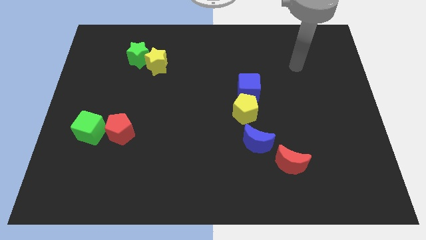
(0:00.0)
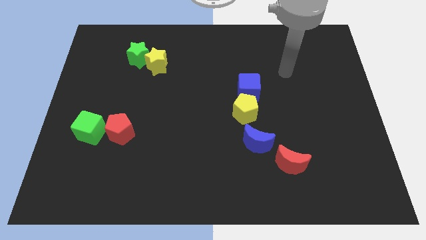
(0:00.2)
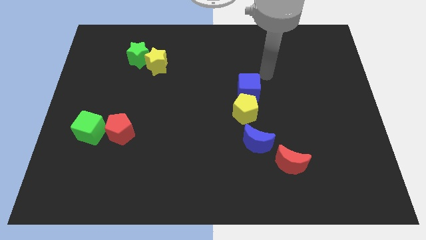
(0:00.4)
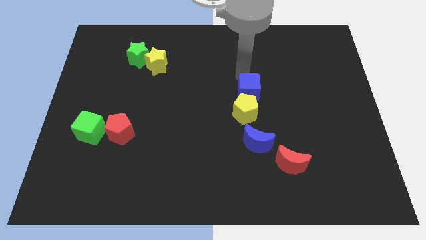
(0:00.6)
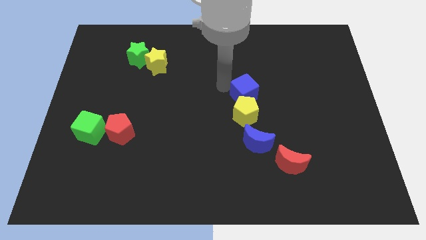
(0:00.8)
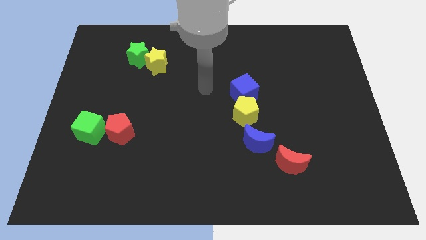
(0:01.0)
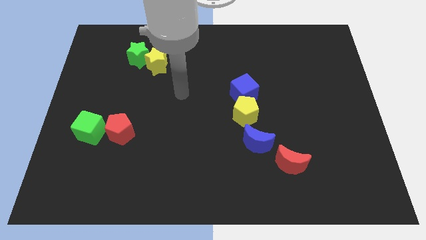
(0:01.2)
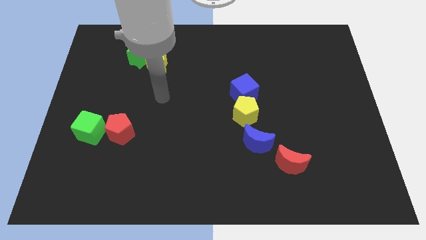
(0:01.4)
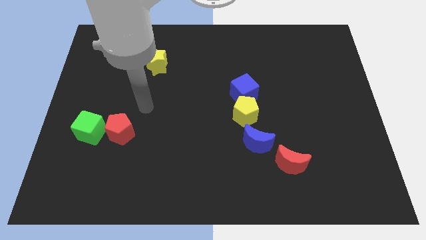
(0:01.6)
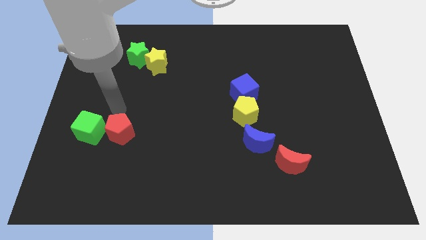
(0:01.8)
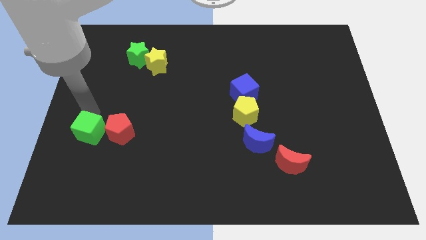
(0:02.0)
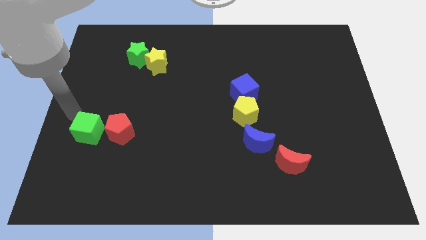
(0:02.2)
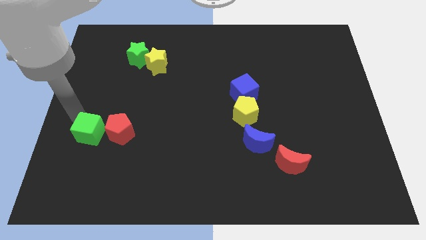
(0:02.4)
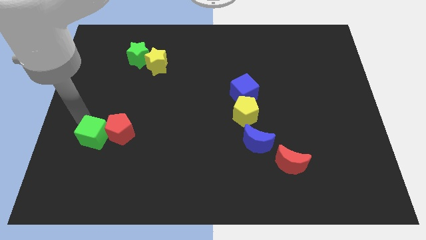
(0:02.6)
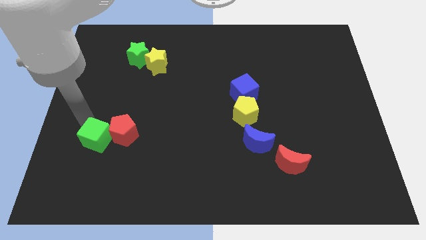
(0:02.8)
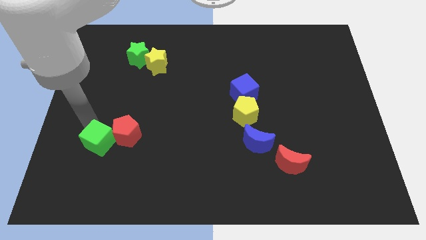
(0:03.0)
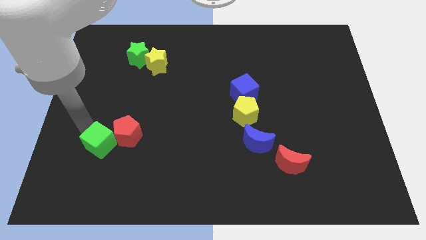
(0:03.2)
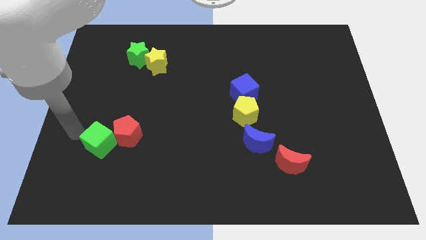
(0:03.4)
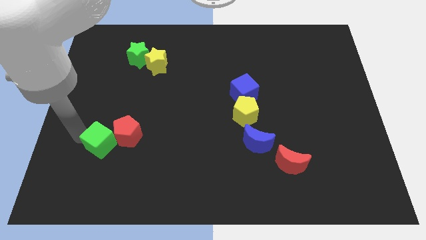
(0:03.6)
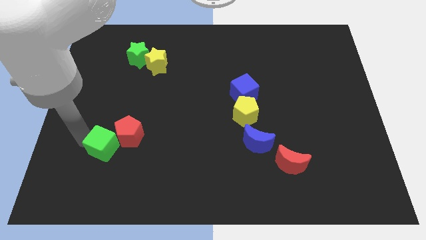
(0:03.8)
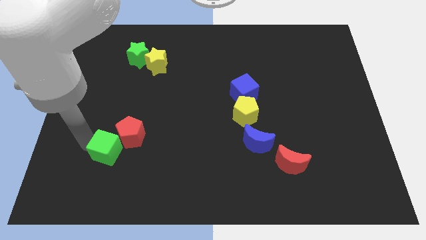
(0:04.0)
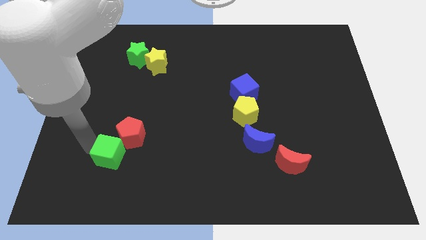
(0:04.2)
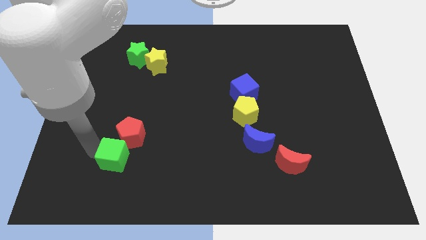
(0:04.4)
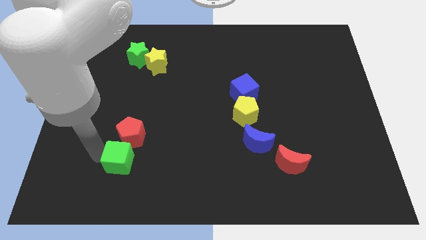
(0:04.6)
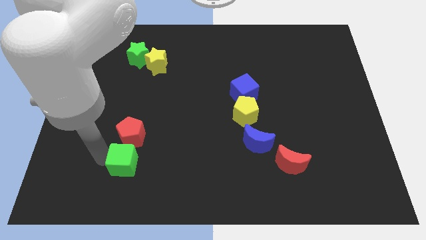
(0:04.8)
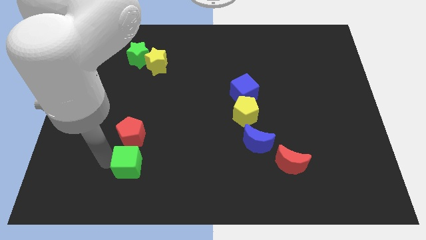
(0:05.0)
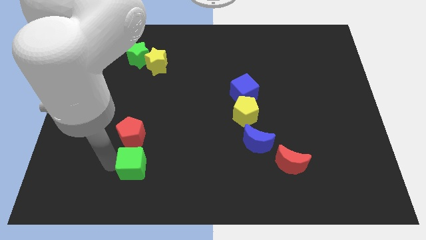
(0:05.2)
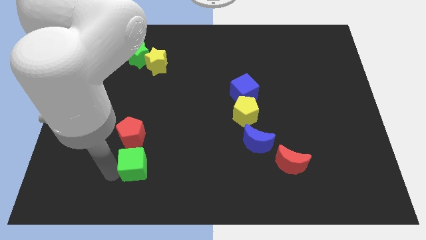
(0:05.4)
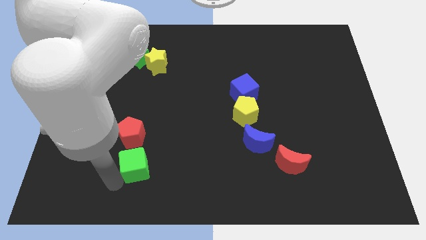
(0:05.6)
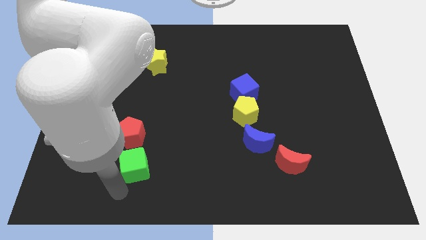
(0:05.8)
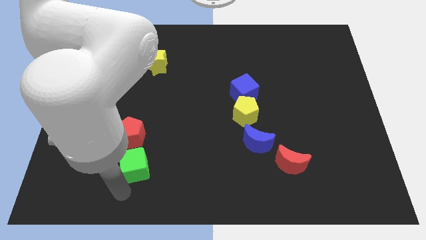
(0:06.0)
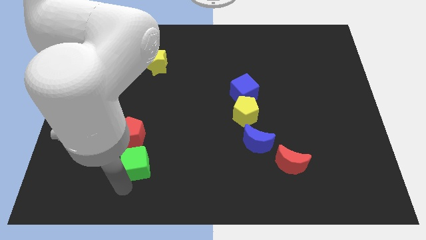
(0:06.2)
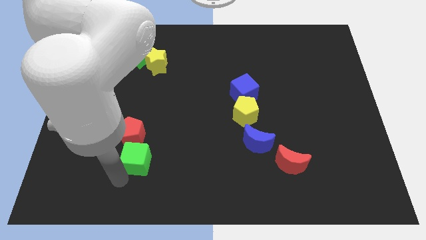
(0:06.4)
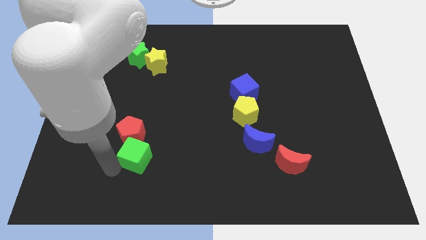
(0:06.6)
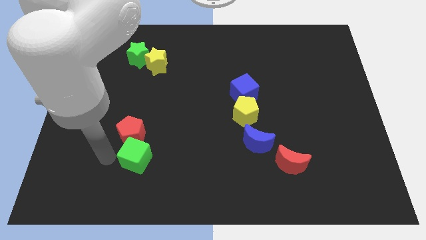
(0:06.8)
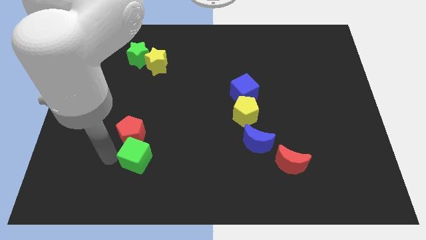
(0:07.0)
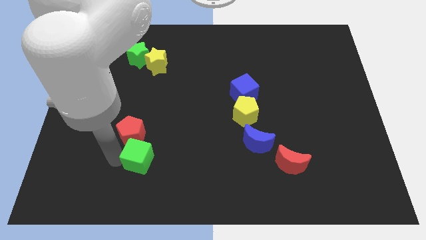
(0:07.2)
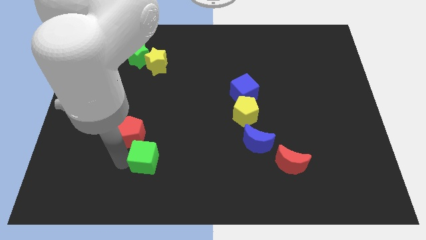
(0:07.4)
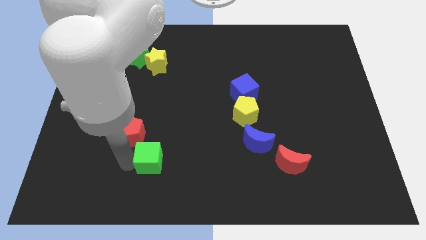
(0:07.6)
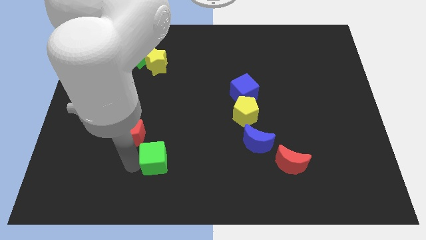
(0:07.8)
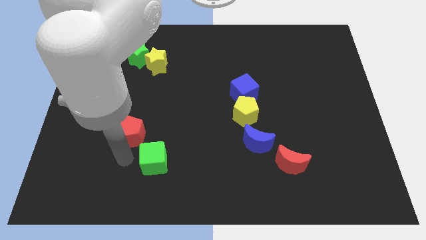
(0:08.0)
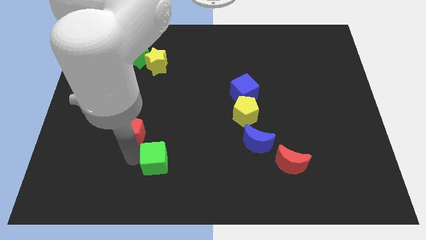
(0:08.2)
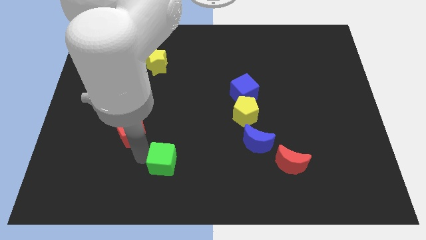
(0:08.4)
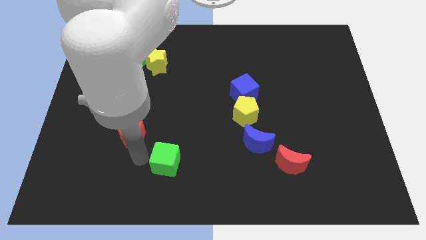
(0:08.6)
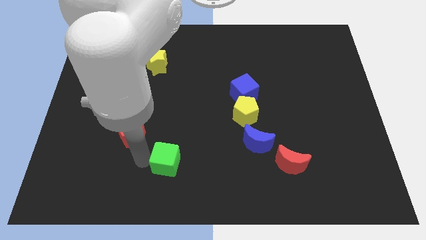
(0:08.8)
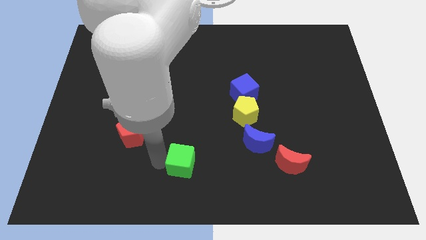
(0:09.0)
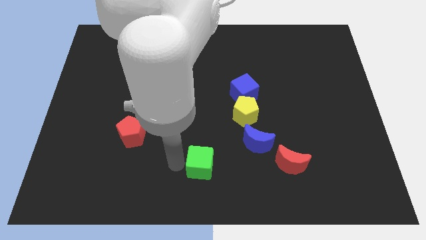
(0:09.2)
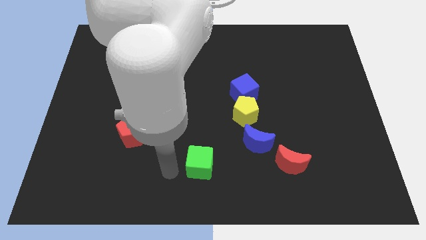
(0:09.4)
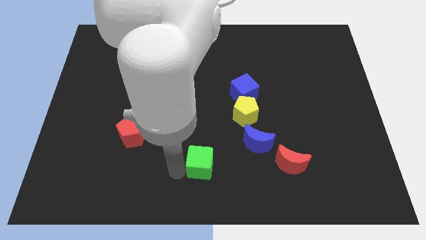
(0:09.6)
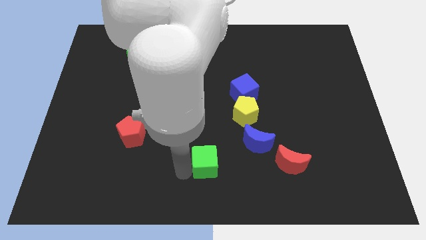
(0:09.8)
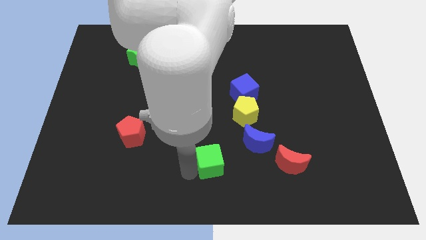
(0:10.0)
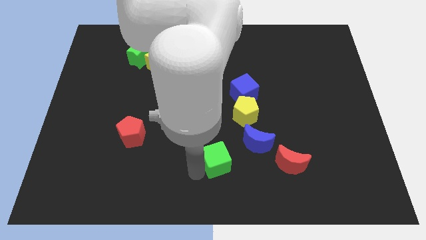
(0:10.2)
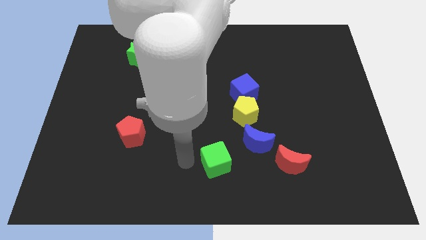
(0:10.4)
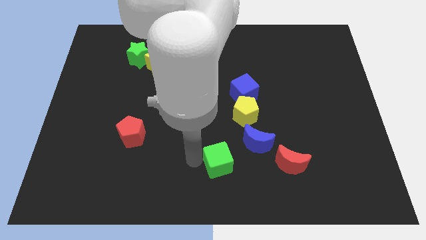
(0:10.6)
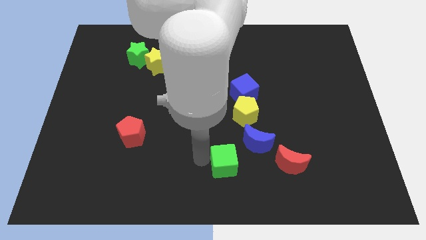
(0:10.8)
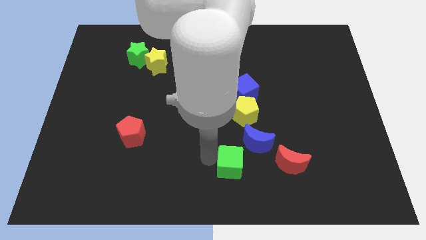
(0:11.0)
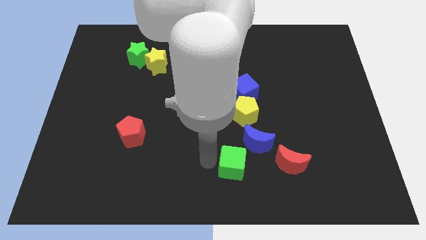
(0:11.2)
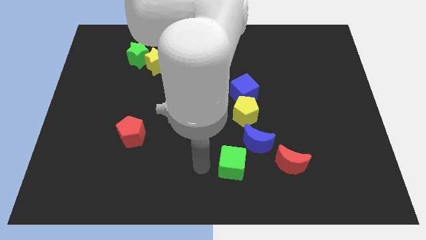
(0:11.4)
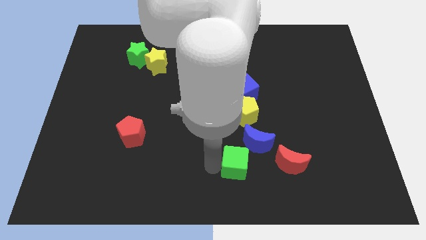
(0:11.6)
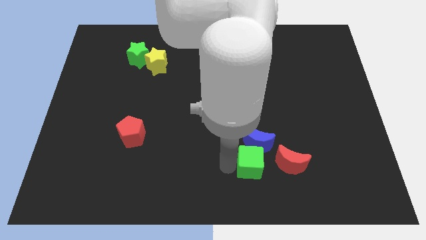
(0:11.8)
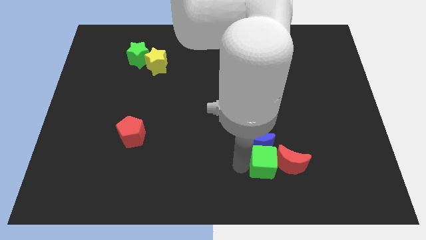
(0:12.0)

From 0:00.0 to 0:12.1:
move the green cube next to the red moon

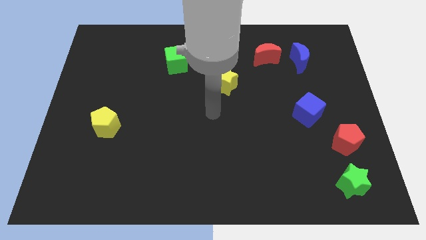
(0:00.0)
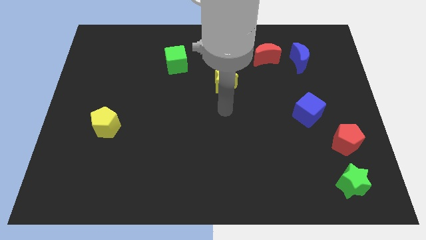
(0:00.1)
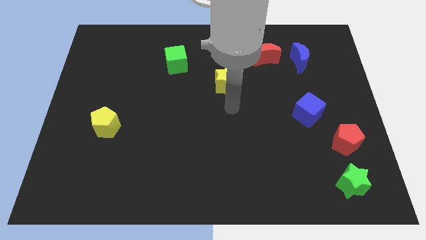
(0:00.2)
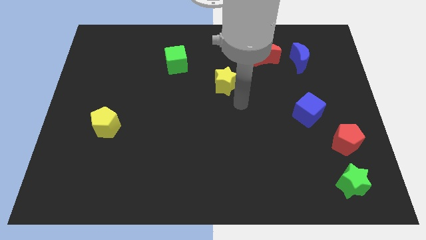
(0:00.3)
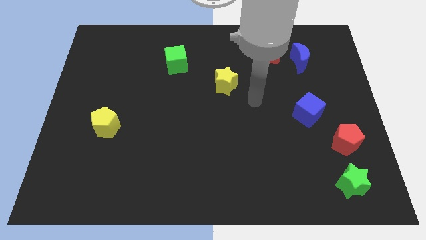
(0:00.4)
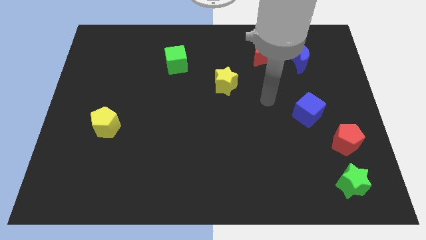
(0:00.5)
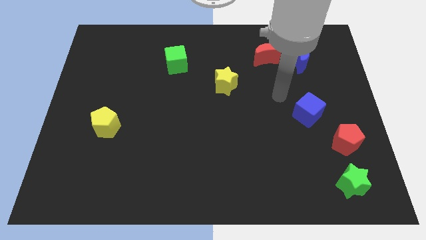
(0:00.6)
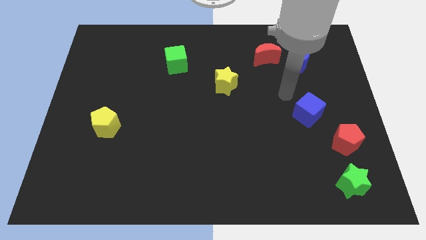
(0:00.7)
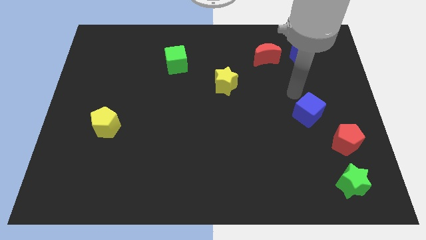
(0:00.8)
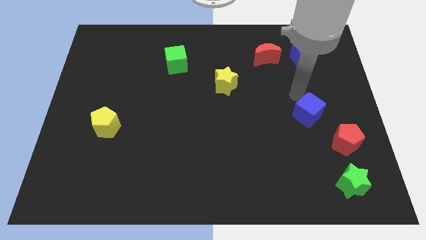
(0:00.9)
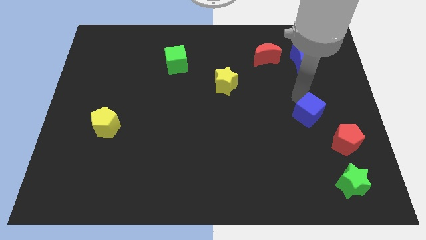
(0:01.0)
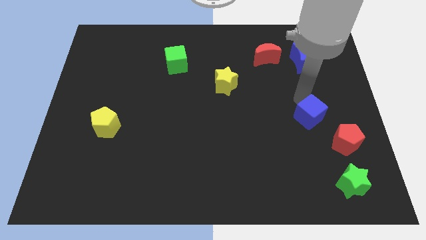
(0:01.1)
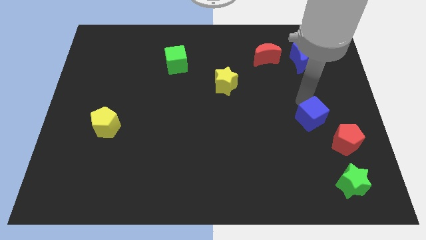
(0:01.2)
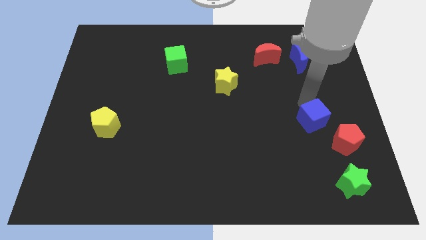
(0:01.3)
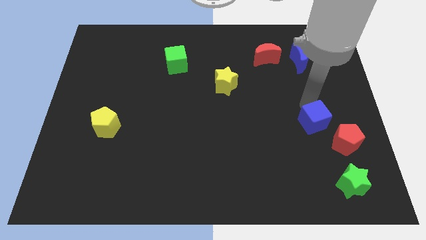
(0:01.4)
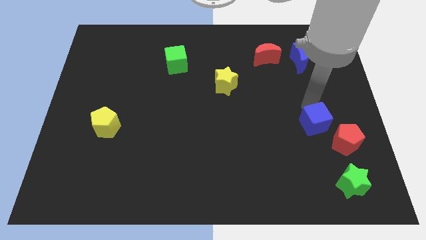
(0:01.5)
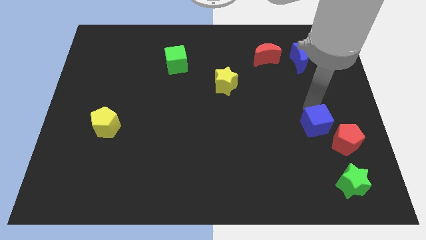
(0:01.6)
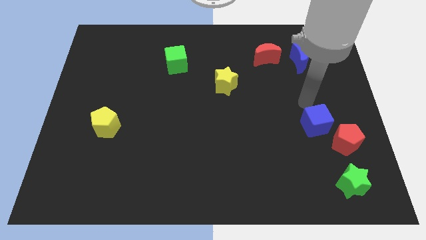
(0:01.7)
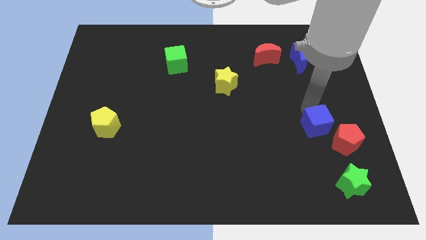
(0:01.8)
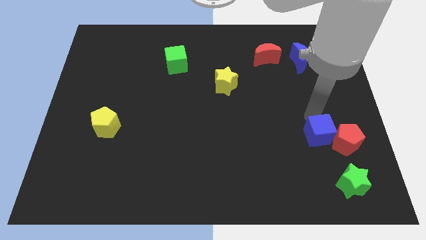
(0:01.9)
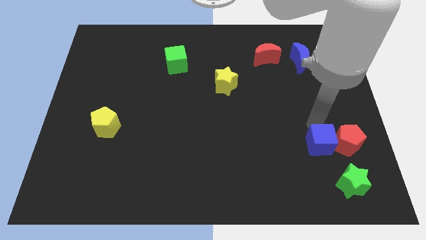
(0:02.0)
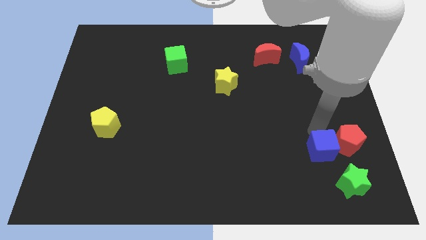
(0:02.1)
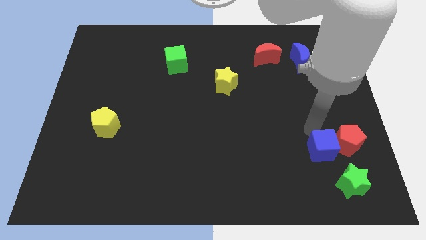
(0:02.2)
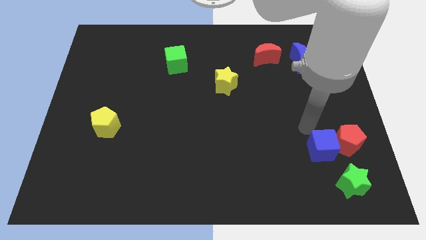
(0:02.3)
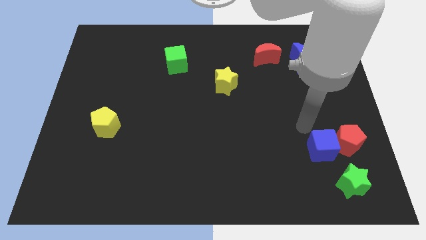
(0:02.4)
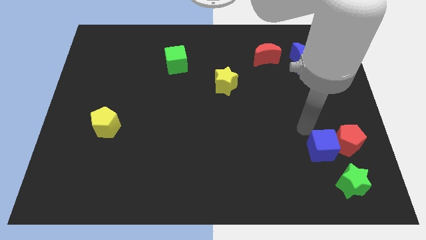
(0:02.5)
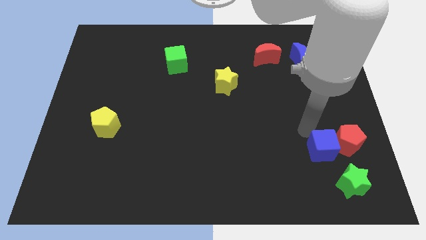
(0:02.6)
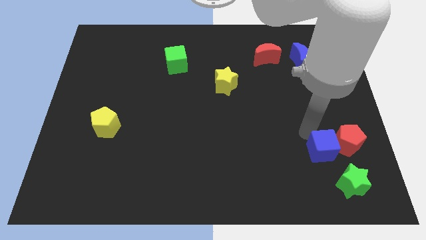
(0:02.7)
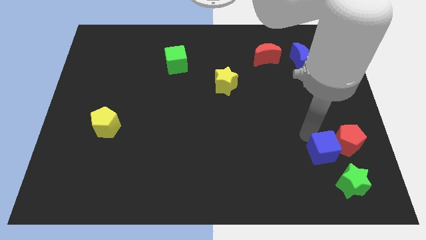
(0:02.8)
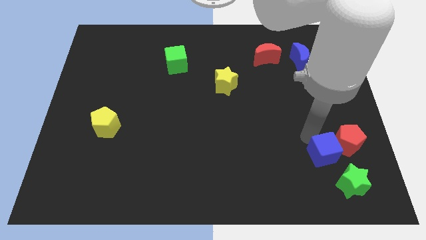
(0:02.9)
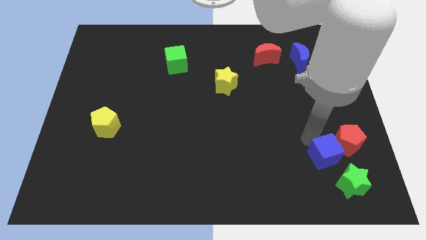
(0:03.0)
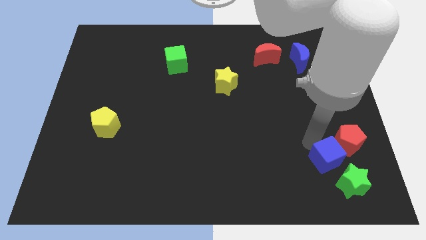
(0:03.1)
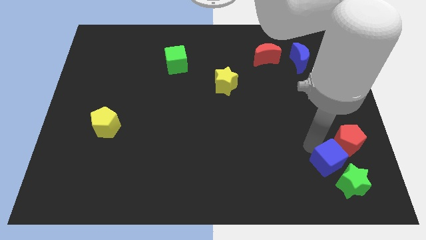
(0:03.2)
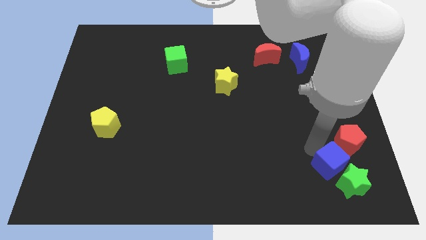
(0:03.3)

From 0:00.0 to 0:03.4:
put the blue cube next to the green star
